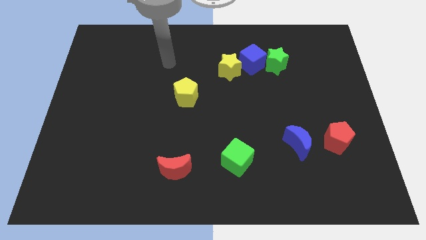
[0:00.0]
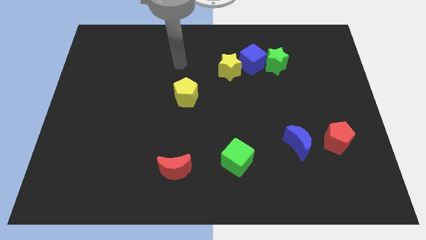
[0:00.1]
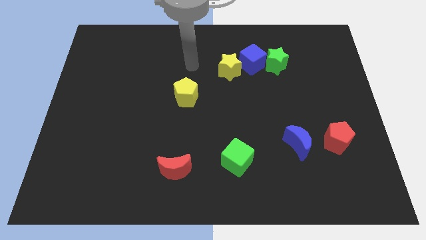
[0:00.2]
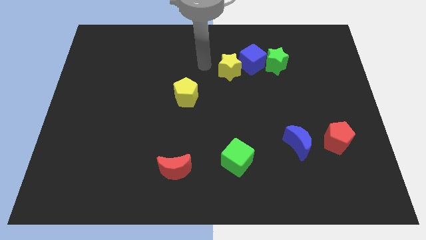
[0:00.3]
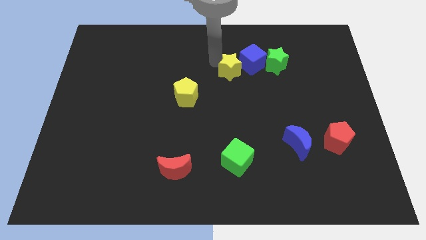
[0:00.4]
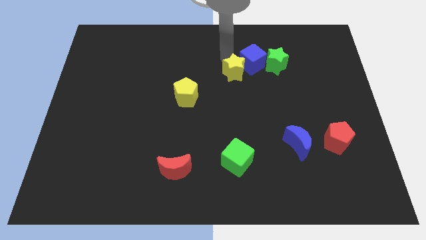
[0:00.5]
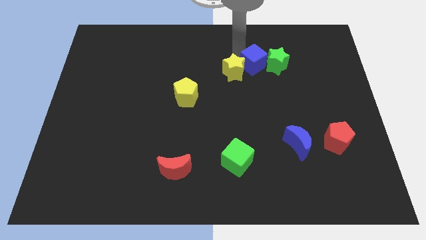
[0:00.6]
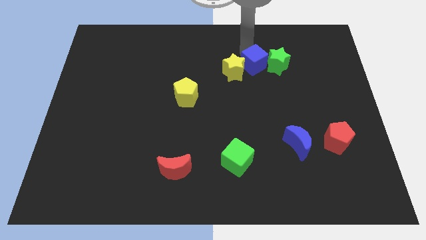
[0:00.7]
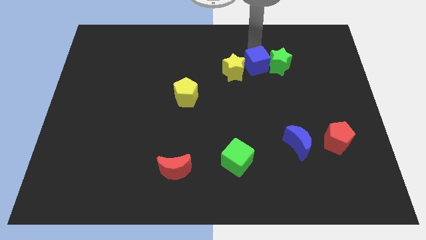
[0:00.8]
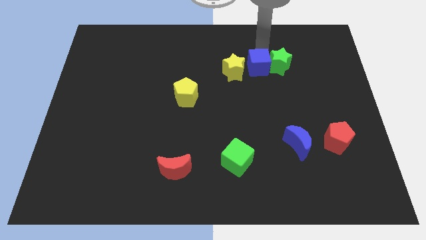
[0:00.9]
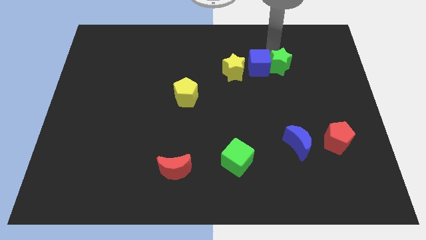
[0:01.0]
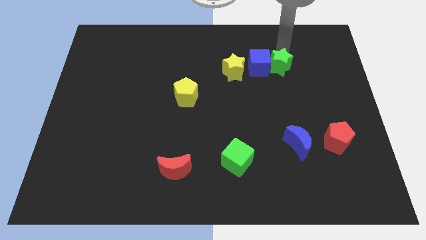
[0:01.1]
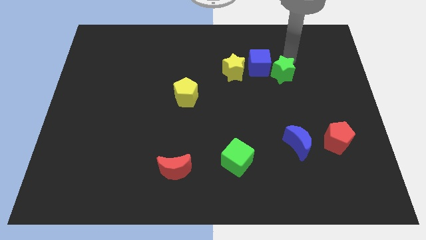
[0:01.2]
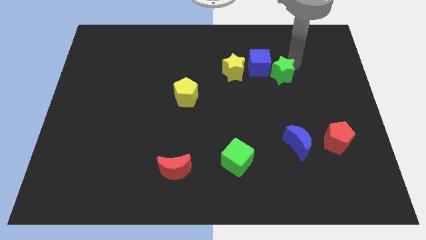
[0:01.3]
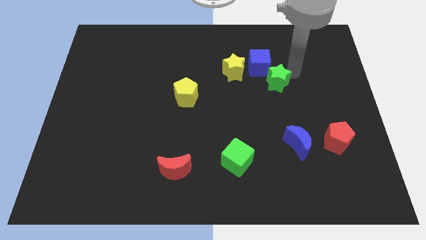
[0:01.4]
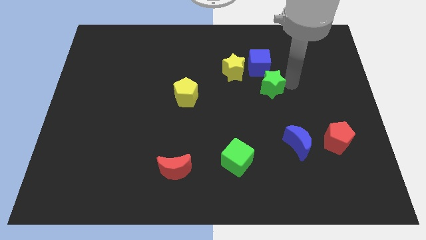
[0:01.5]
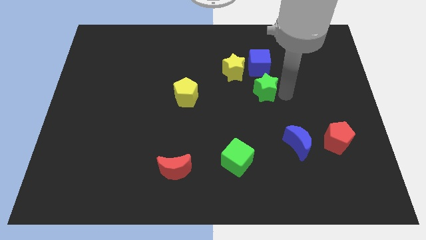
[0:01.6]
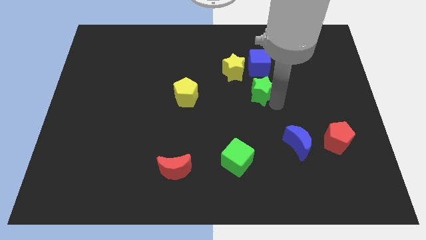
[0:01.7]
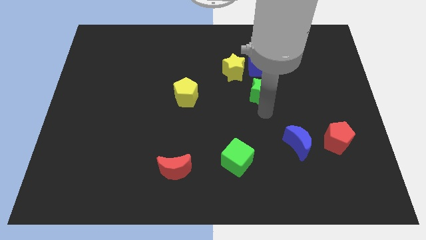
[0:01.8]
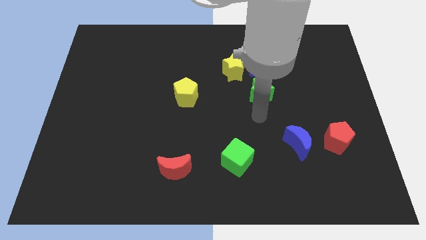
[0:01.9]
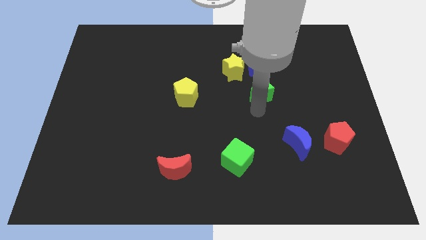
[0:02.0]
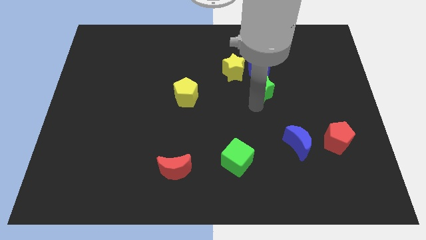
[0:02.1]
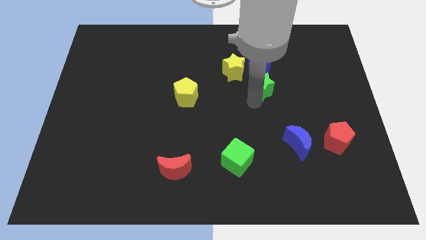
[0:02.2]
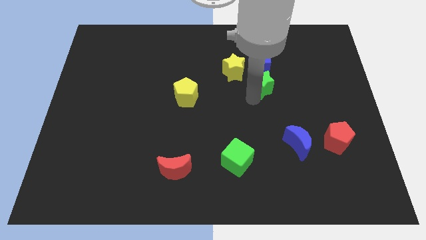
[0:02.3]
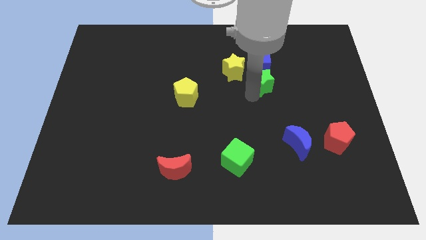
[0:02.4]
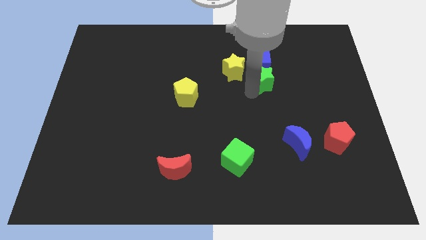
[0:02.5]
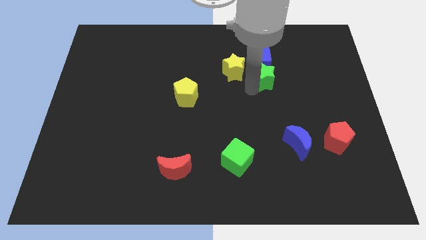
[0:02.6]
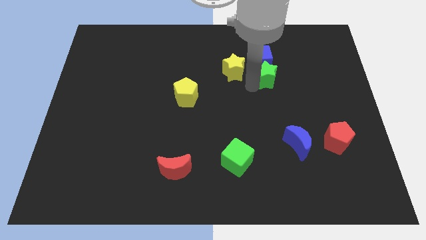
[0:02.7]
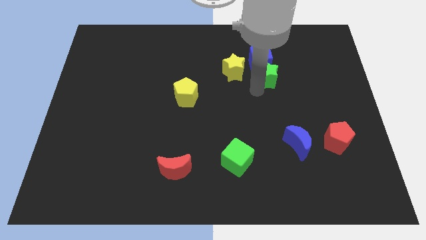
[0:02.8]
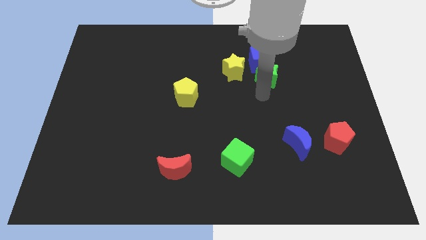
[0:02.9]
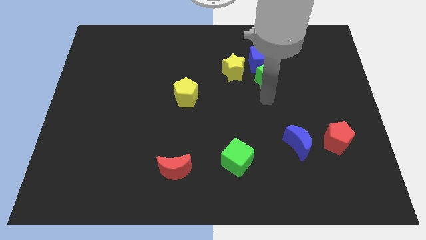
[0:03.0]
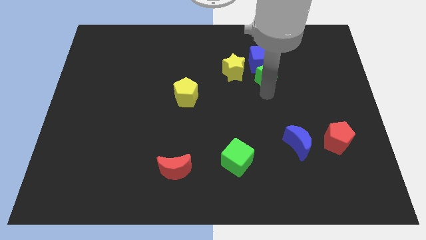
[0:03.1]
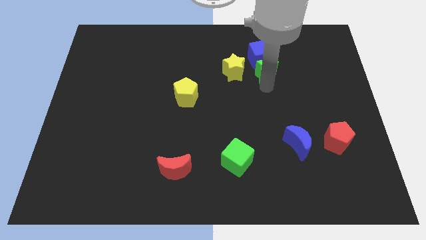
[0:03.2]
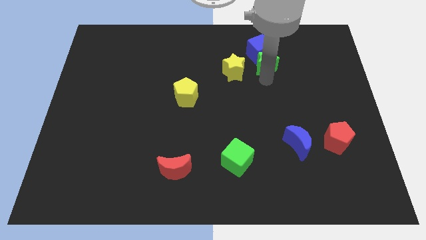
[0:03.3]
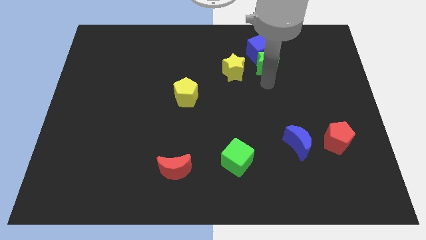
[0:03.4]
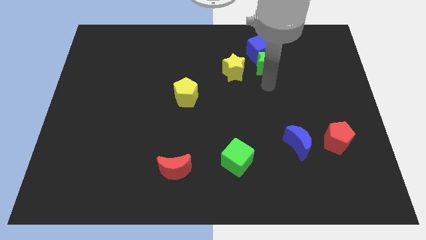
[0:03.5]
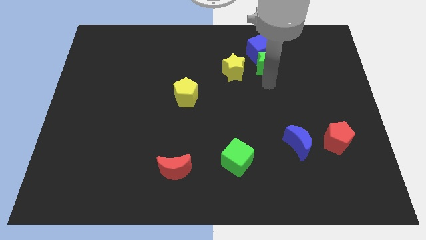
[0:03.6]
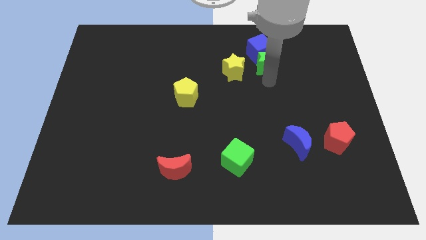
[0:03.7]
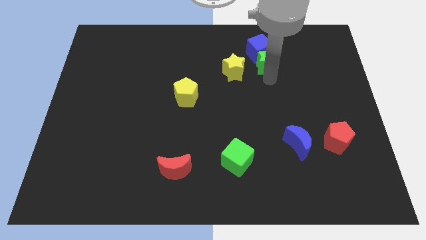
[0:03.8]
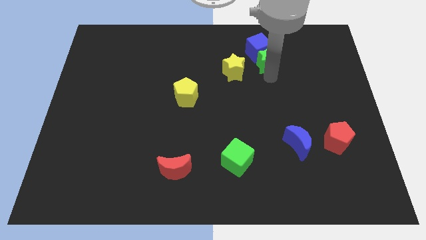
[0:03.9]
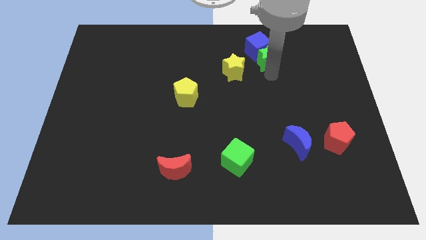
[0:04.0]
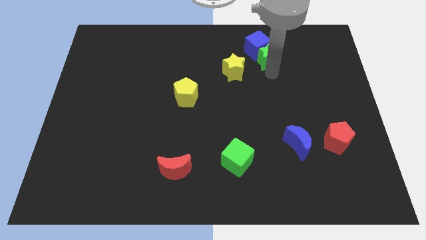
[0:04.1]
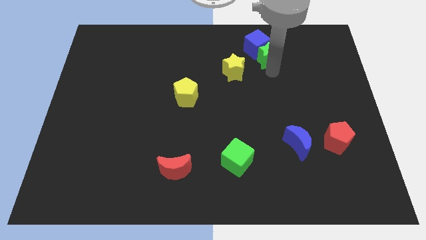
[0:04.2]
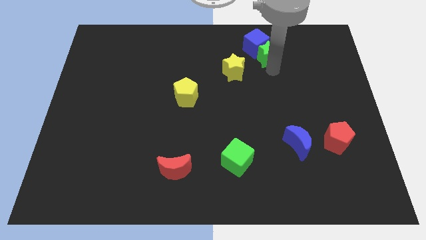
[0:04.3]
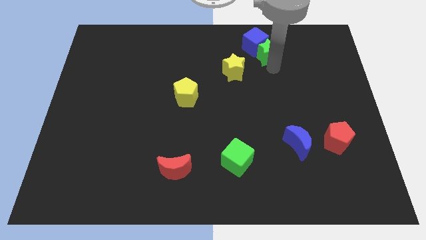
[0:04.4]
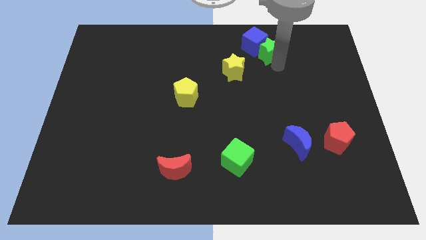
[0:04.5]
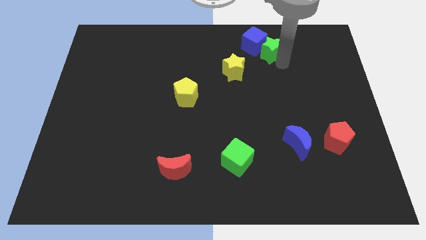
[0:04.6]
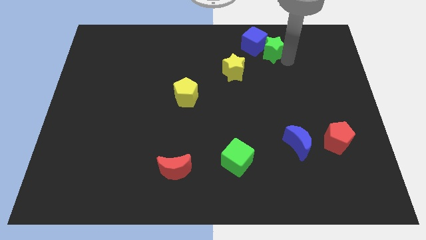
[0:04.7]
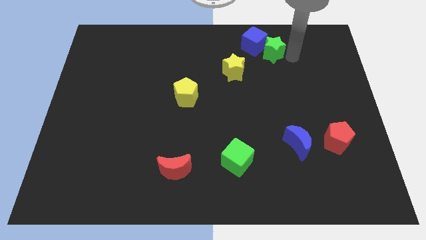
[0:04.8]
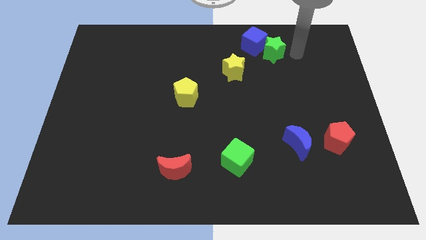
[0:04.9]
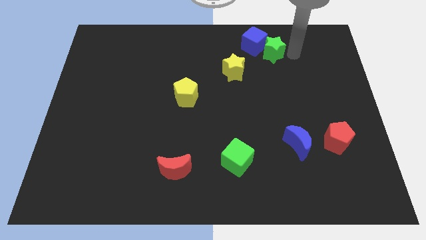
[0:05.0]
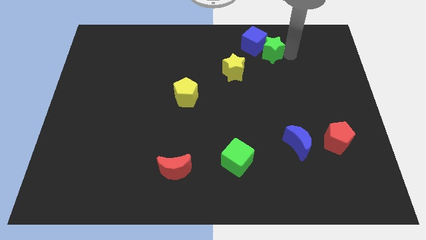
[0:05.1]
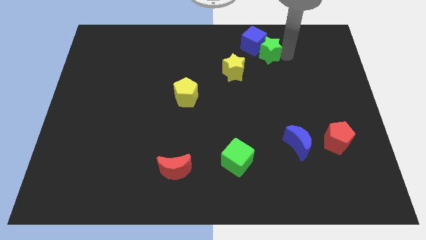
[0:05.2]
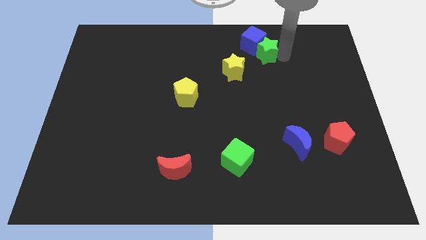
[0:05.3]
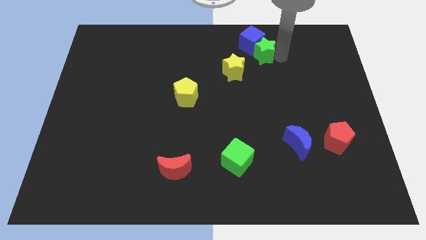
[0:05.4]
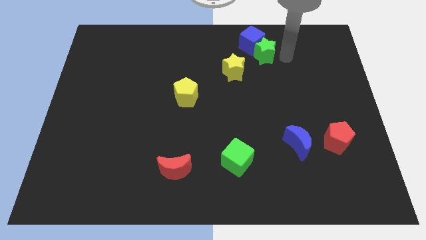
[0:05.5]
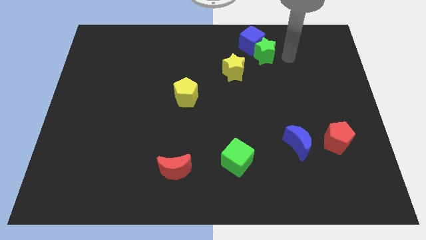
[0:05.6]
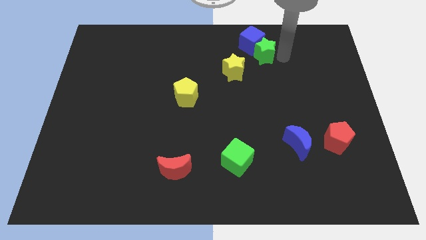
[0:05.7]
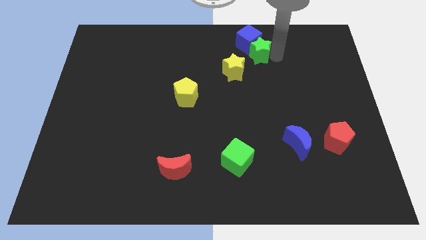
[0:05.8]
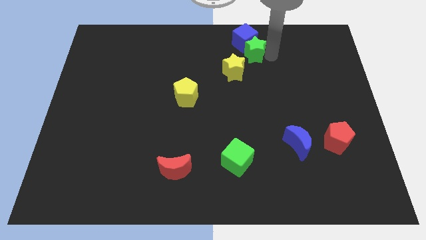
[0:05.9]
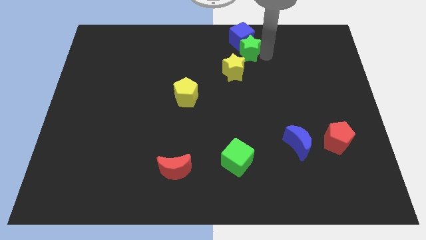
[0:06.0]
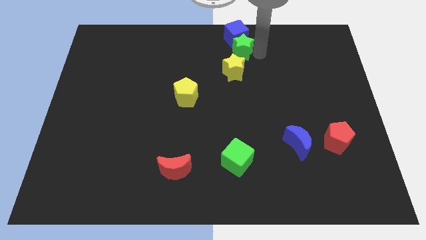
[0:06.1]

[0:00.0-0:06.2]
move the green star a bit to the left

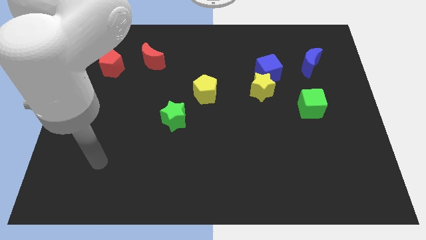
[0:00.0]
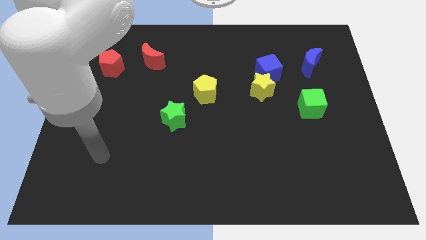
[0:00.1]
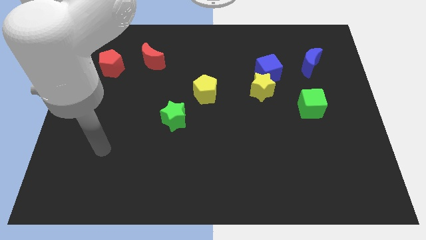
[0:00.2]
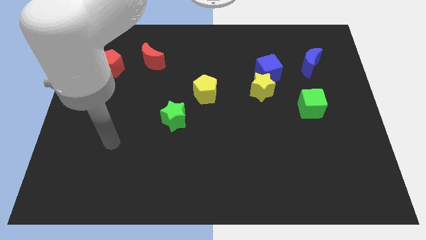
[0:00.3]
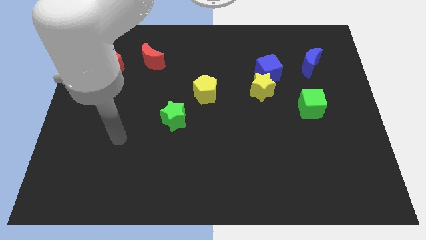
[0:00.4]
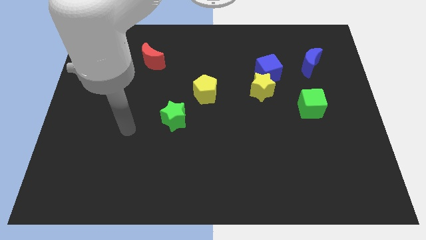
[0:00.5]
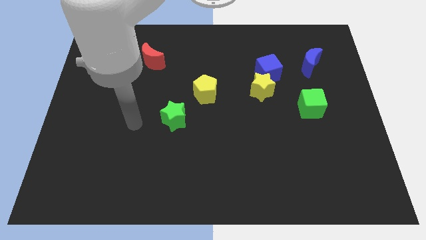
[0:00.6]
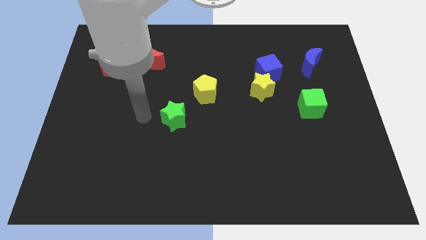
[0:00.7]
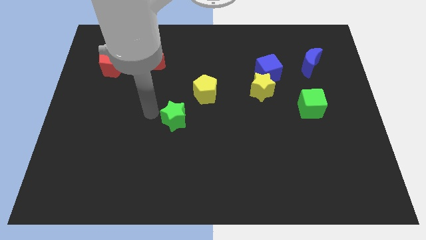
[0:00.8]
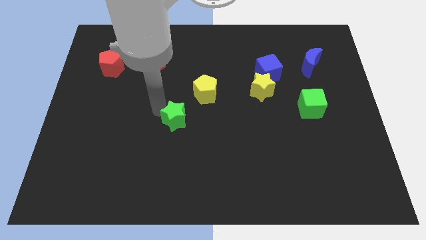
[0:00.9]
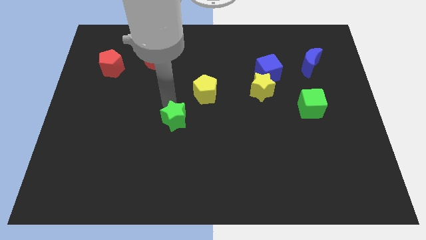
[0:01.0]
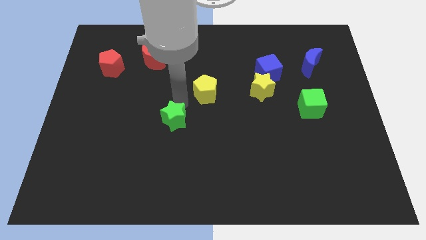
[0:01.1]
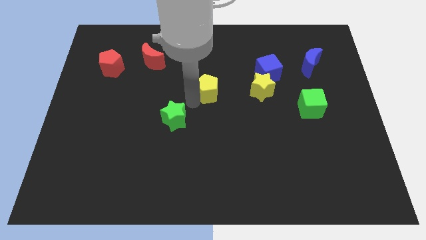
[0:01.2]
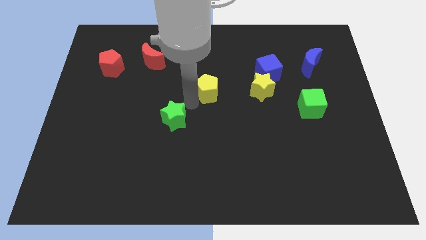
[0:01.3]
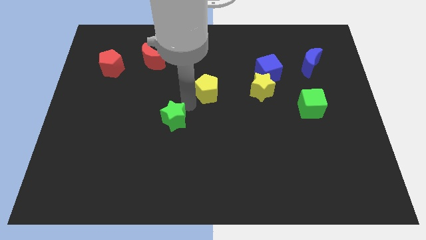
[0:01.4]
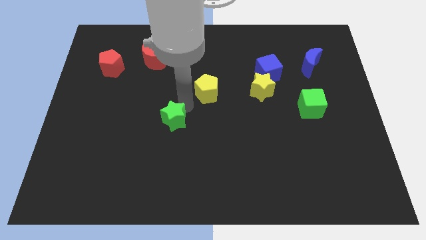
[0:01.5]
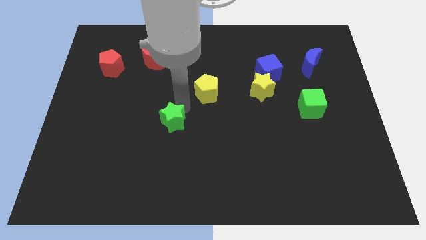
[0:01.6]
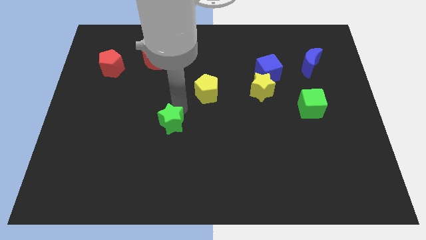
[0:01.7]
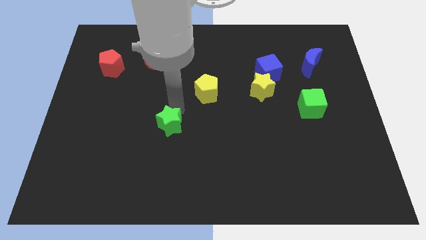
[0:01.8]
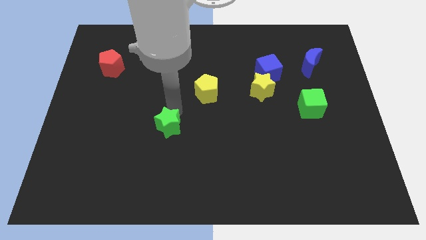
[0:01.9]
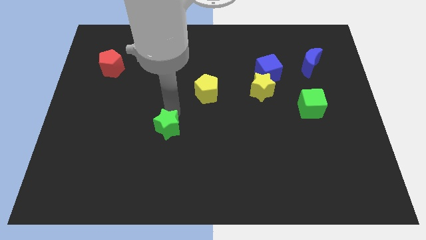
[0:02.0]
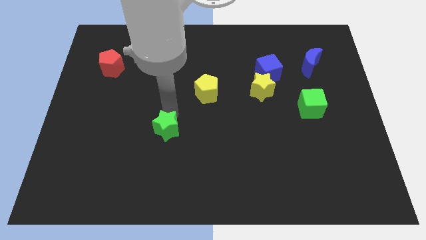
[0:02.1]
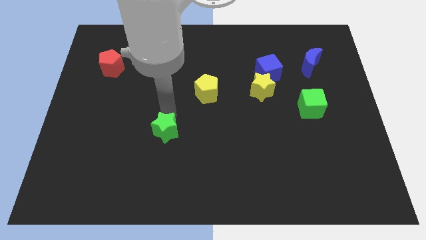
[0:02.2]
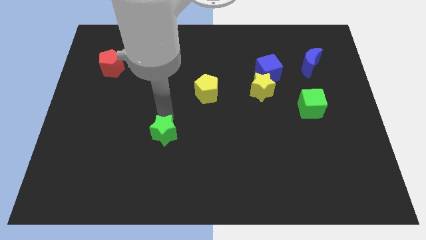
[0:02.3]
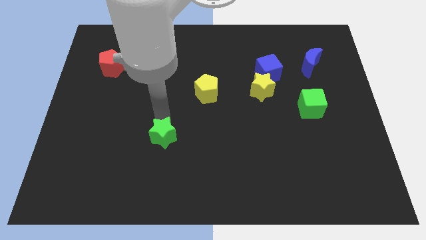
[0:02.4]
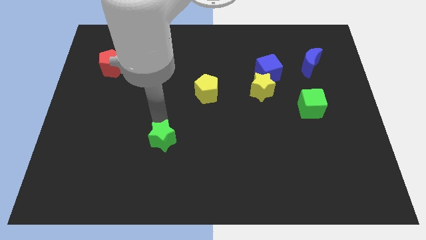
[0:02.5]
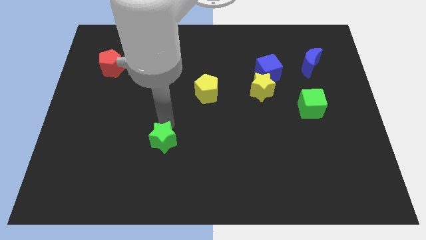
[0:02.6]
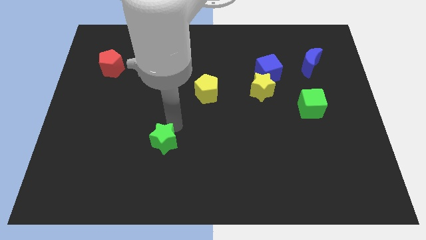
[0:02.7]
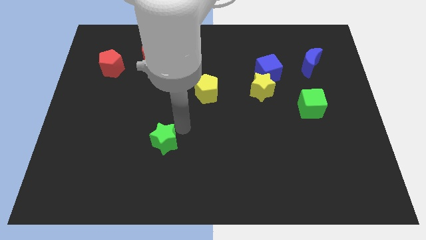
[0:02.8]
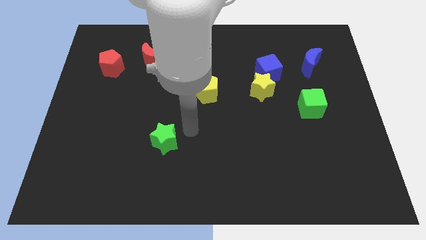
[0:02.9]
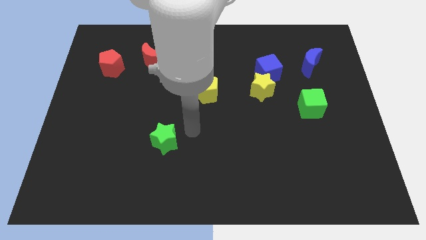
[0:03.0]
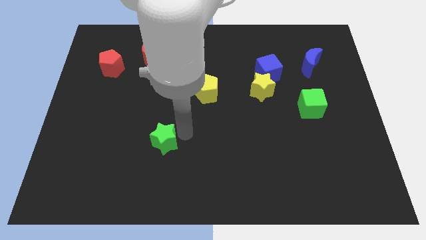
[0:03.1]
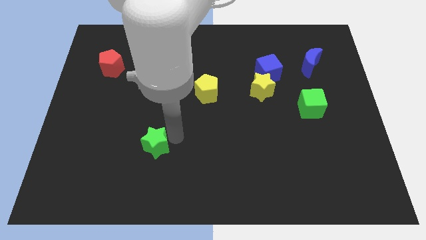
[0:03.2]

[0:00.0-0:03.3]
move the green star diagonally downwards and left a little bit
